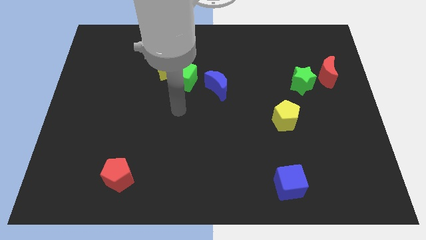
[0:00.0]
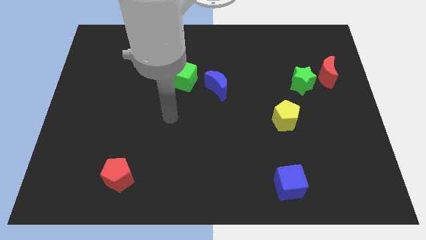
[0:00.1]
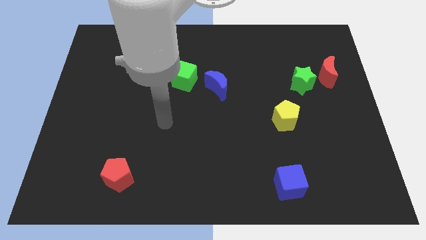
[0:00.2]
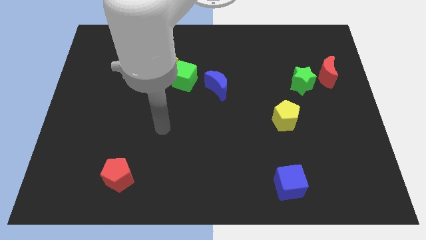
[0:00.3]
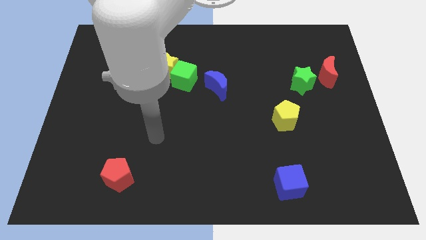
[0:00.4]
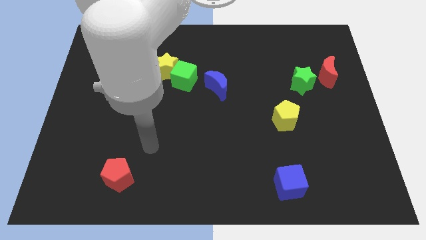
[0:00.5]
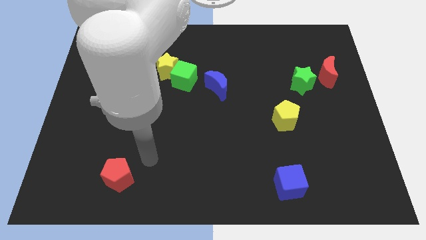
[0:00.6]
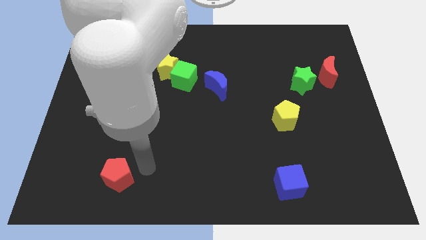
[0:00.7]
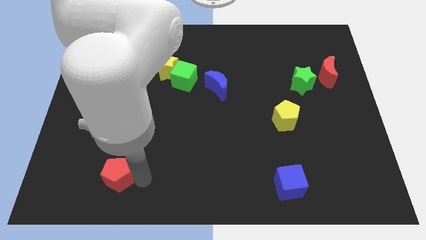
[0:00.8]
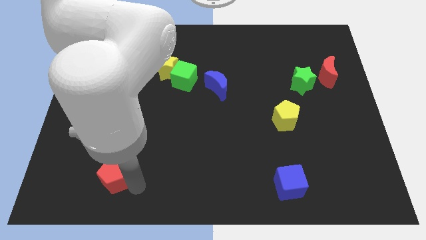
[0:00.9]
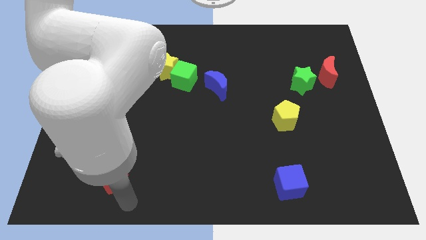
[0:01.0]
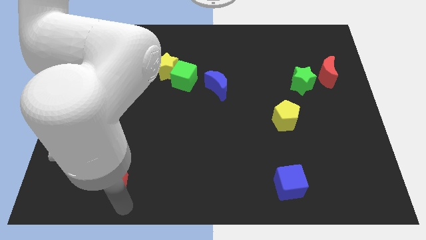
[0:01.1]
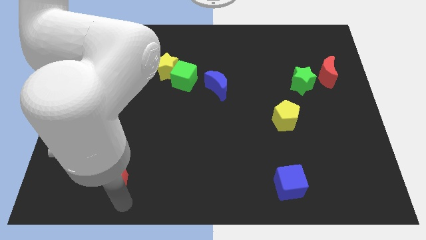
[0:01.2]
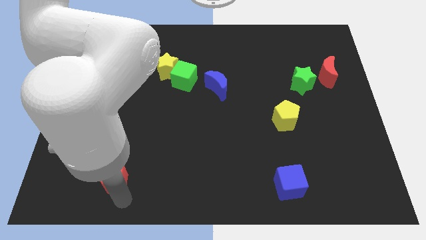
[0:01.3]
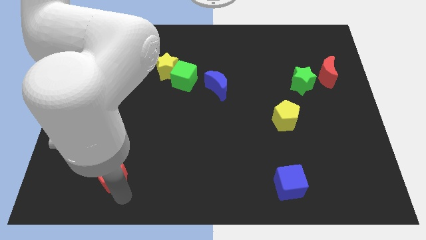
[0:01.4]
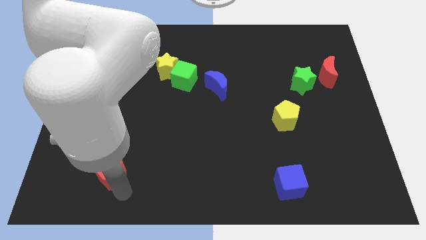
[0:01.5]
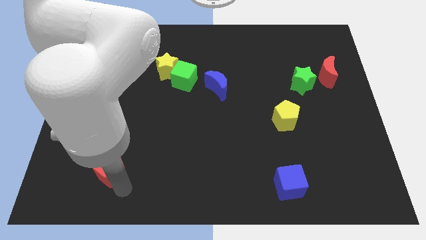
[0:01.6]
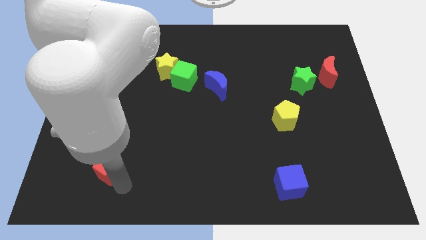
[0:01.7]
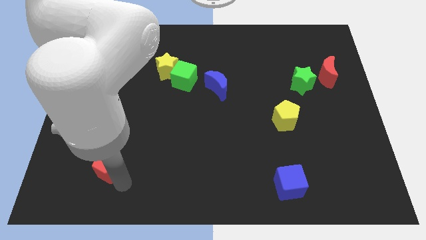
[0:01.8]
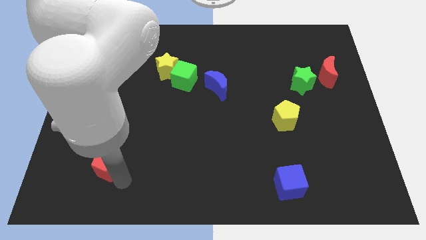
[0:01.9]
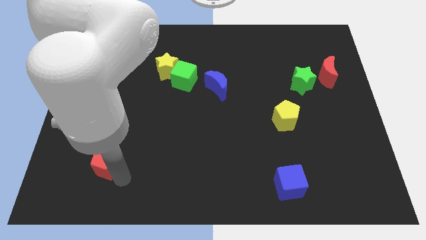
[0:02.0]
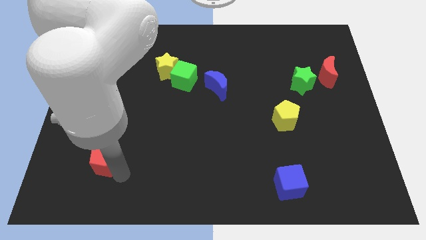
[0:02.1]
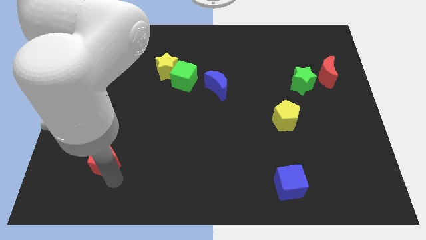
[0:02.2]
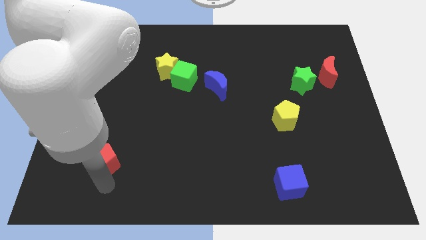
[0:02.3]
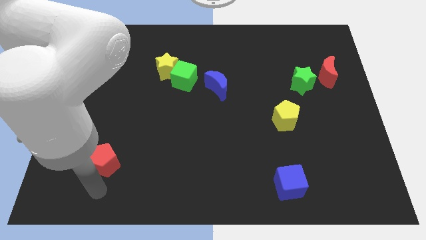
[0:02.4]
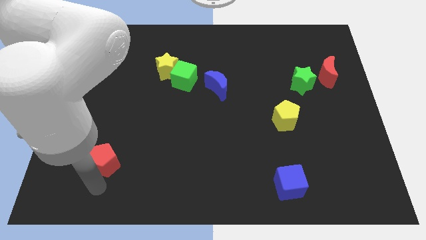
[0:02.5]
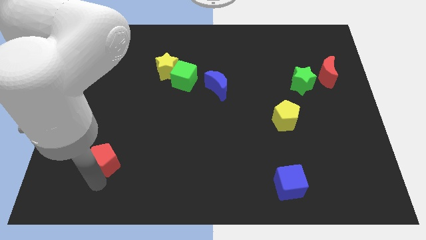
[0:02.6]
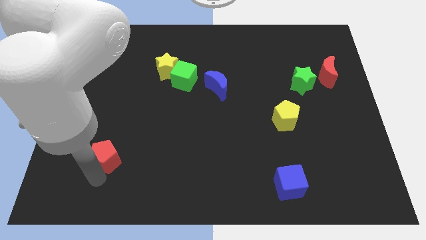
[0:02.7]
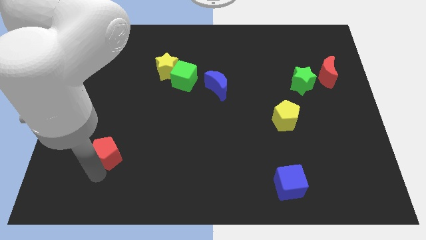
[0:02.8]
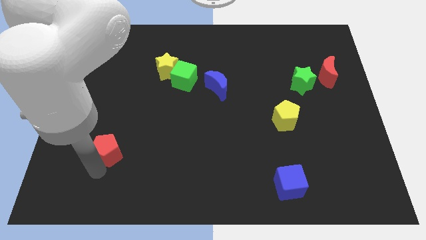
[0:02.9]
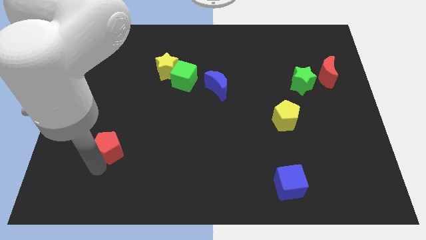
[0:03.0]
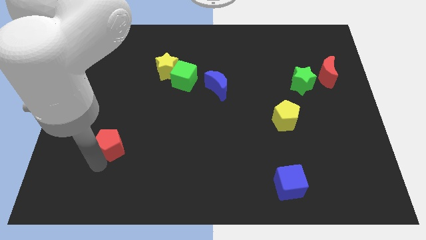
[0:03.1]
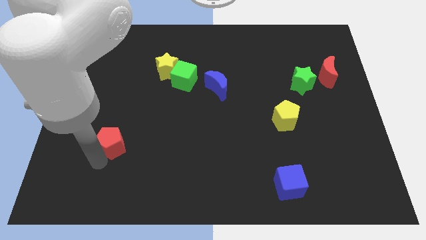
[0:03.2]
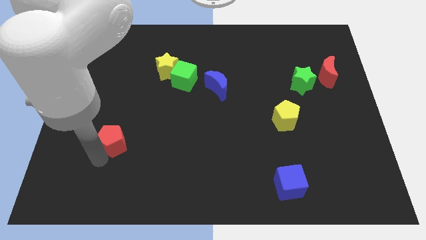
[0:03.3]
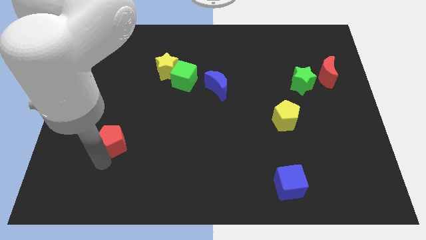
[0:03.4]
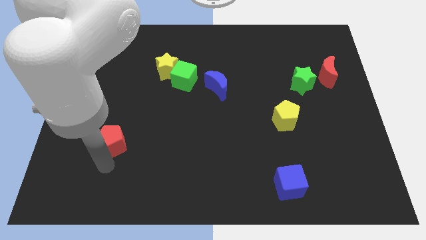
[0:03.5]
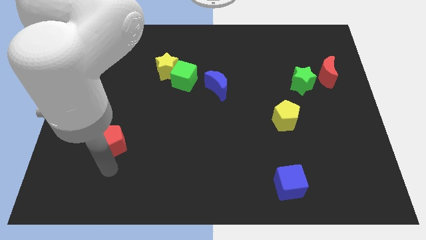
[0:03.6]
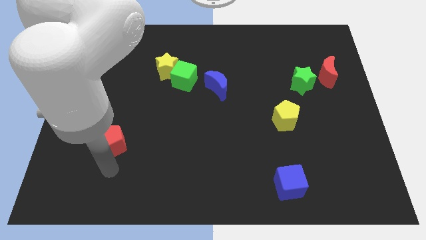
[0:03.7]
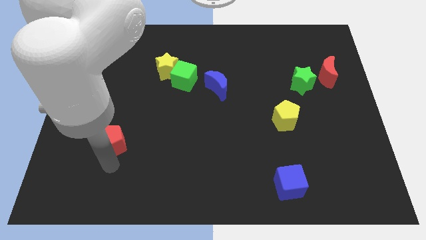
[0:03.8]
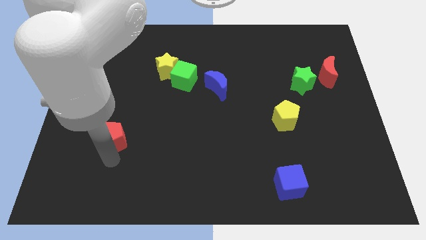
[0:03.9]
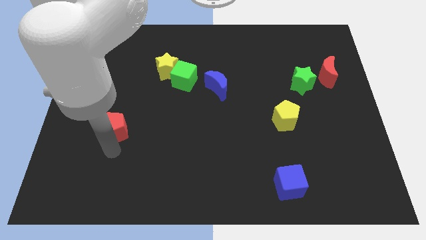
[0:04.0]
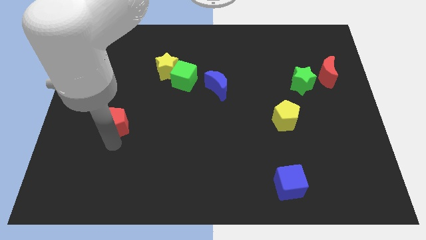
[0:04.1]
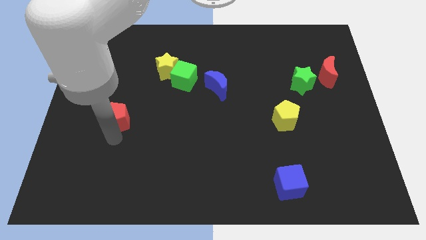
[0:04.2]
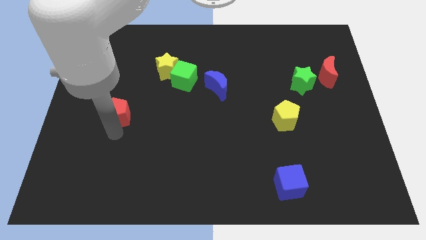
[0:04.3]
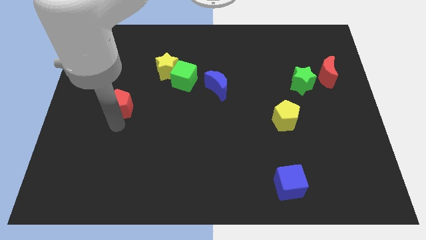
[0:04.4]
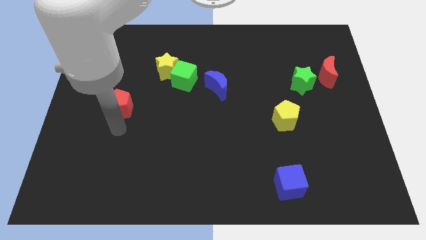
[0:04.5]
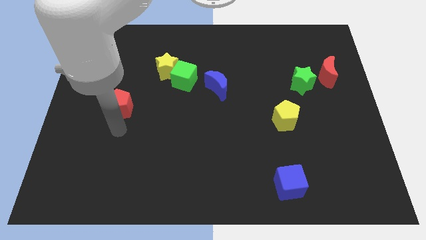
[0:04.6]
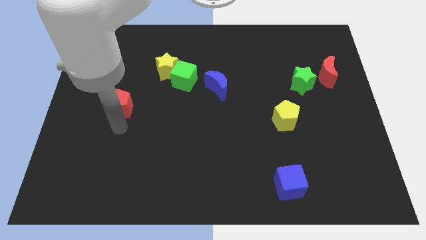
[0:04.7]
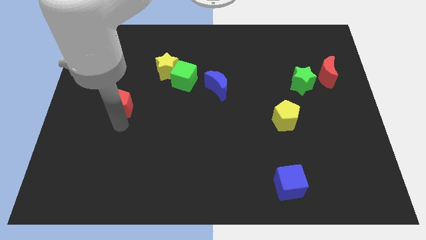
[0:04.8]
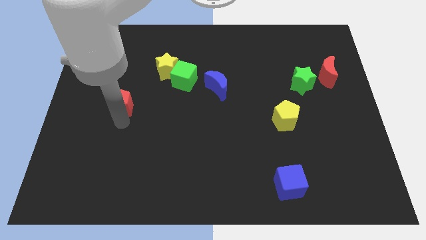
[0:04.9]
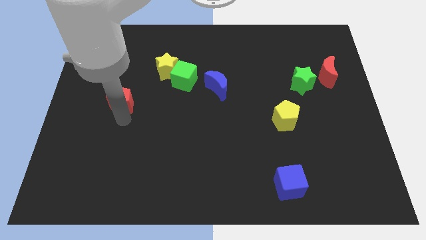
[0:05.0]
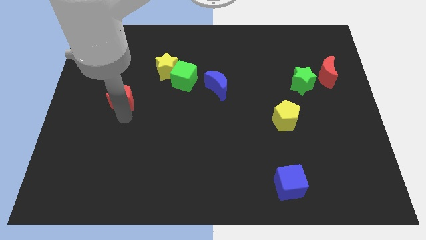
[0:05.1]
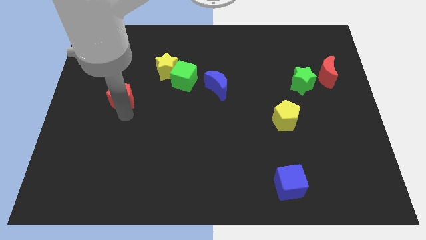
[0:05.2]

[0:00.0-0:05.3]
slide the red pentagon upwards

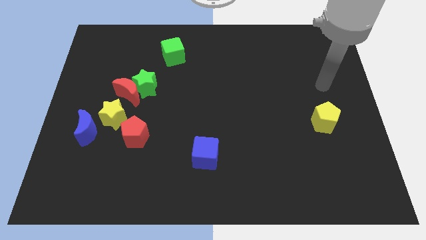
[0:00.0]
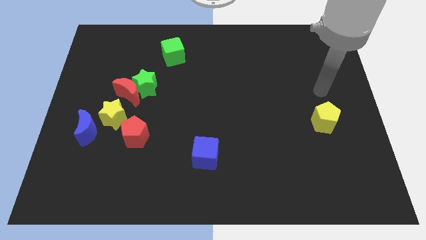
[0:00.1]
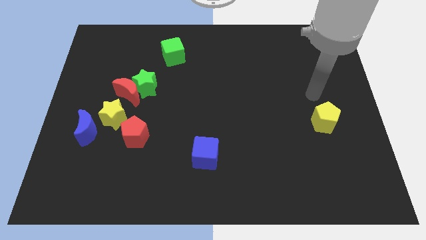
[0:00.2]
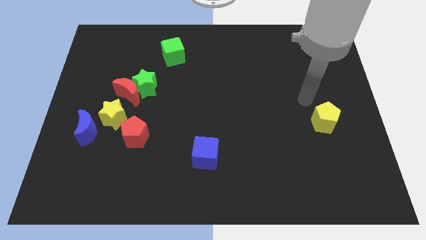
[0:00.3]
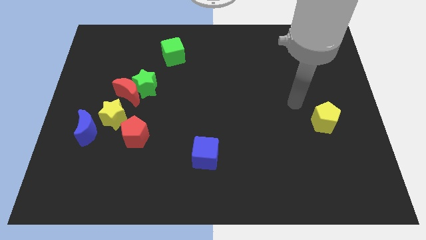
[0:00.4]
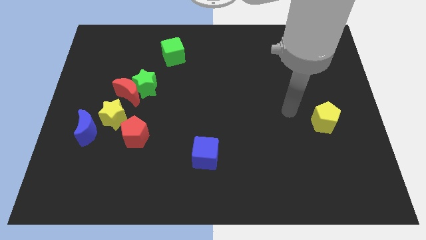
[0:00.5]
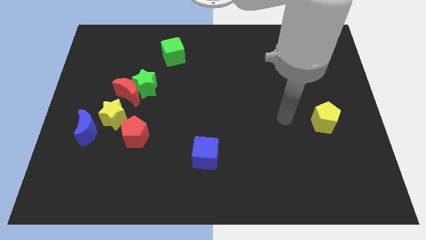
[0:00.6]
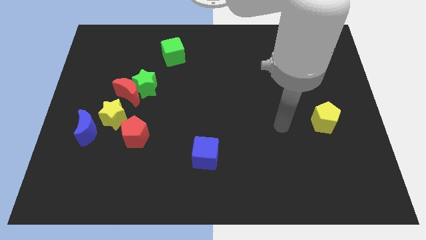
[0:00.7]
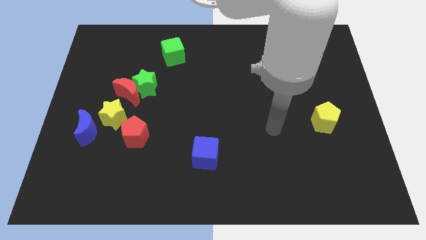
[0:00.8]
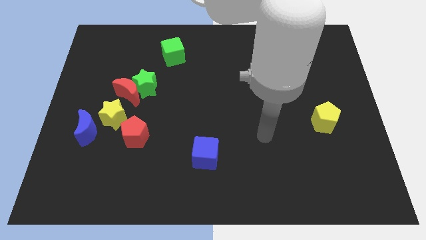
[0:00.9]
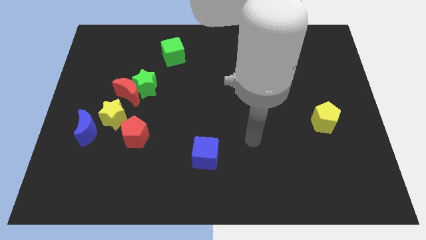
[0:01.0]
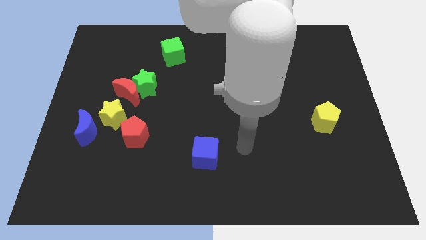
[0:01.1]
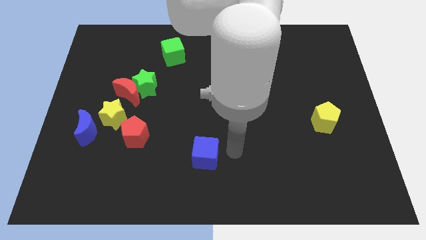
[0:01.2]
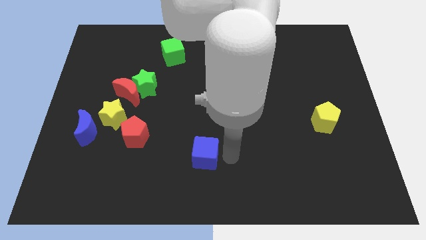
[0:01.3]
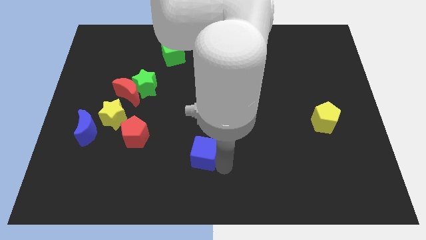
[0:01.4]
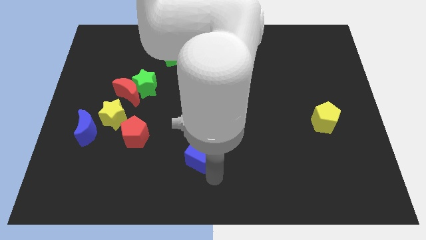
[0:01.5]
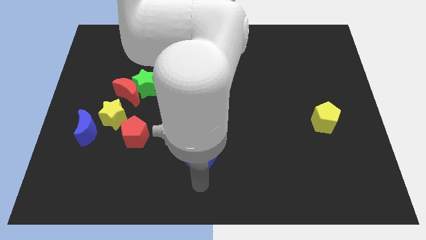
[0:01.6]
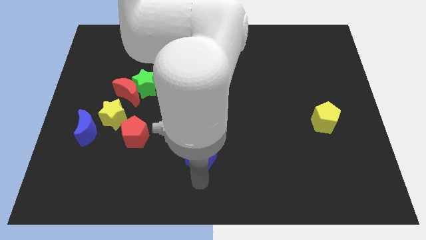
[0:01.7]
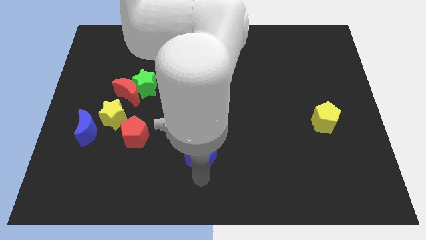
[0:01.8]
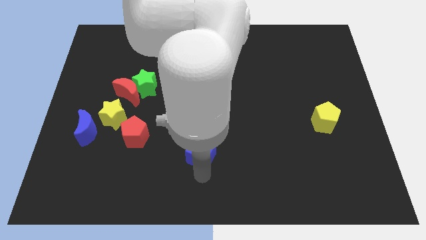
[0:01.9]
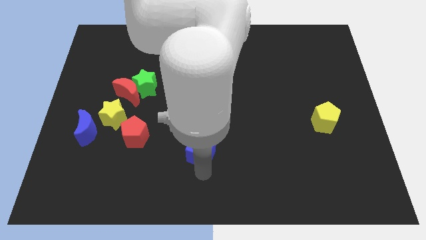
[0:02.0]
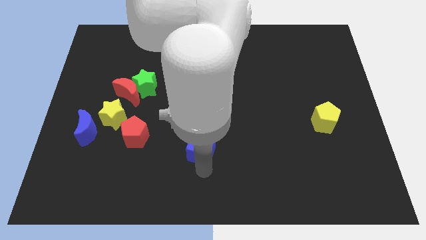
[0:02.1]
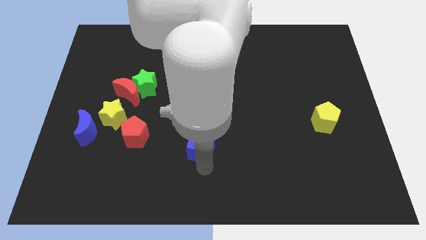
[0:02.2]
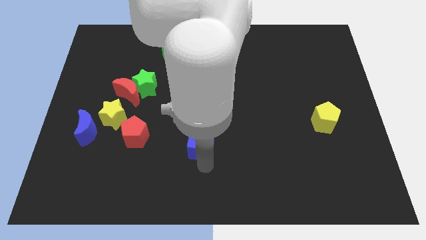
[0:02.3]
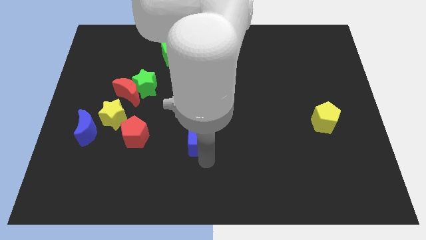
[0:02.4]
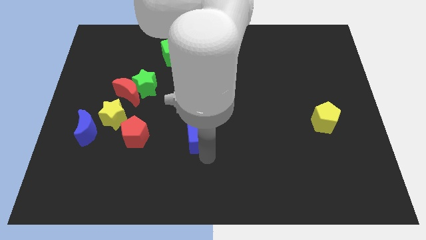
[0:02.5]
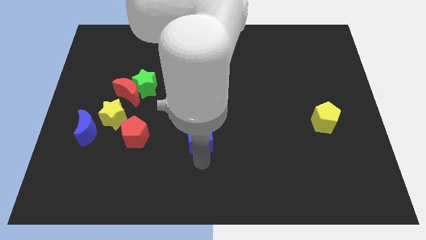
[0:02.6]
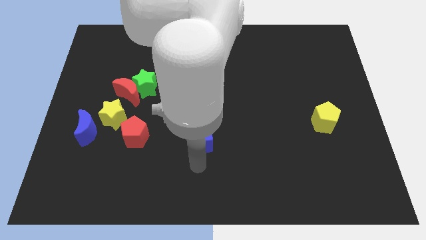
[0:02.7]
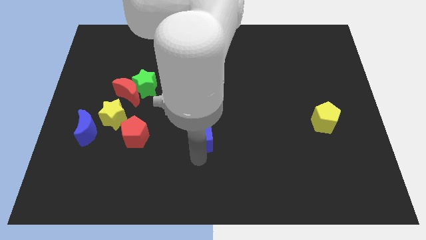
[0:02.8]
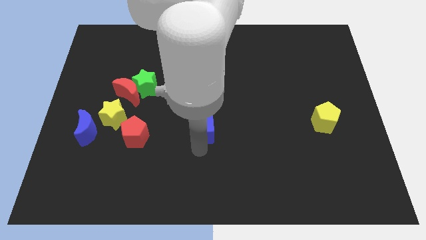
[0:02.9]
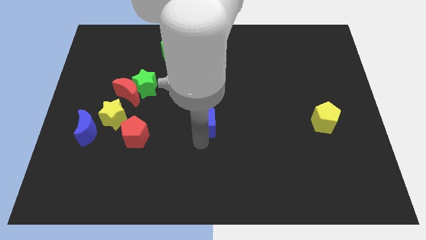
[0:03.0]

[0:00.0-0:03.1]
slightly slide the blue cube up
